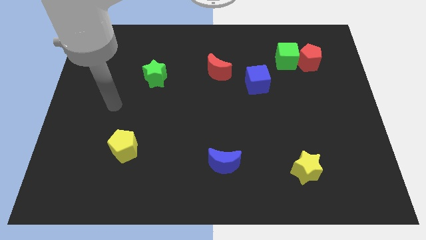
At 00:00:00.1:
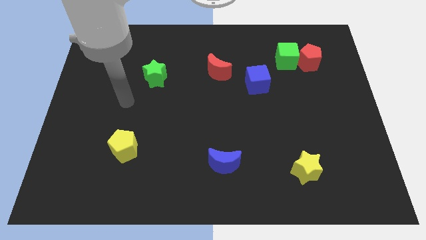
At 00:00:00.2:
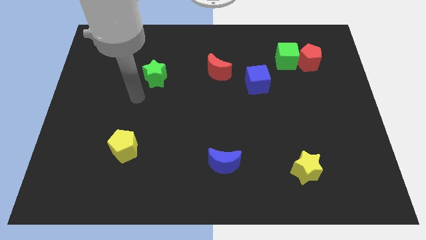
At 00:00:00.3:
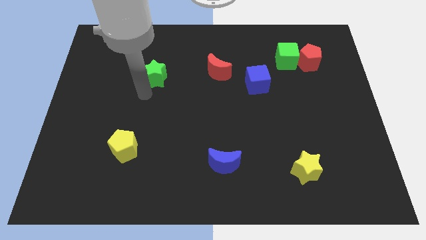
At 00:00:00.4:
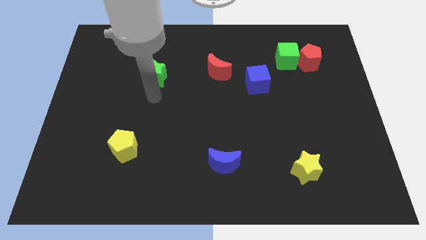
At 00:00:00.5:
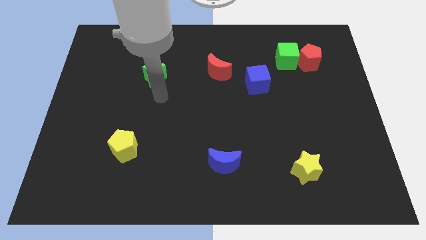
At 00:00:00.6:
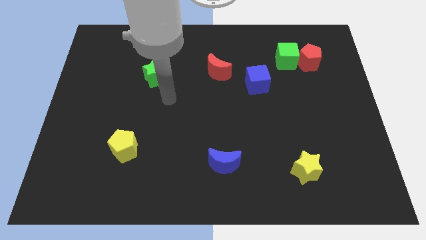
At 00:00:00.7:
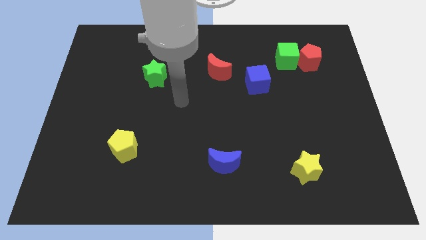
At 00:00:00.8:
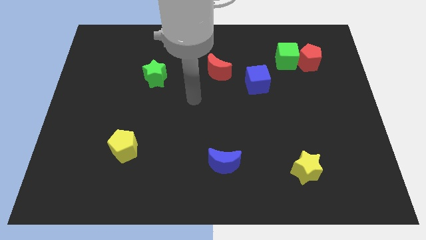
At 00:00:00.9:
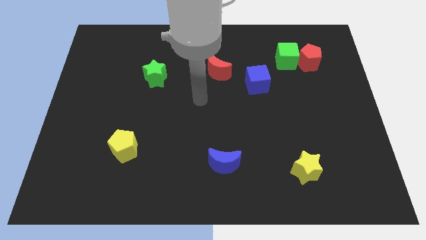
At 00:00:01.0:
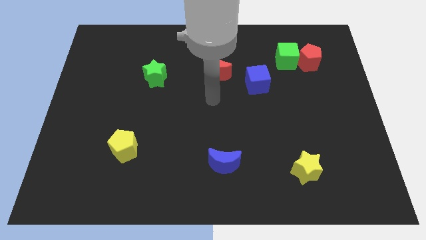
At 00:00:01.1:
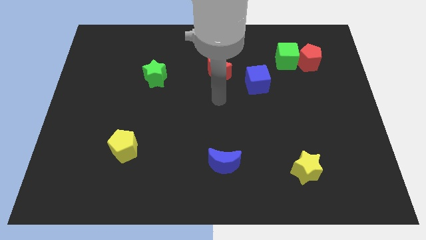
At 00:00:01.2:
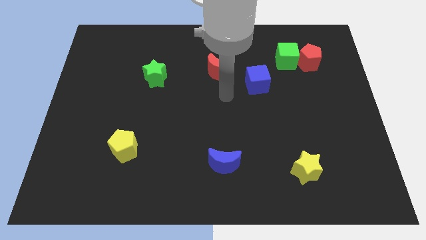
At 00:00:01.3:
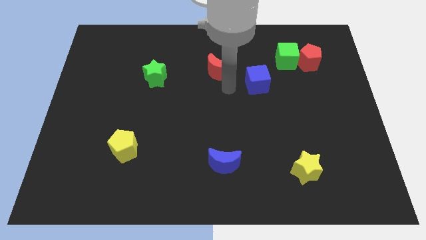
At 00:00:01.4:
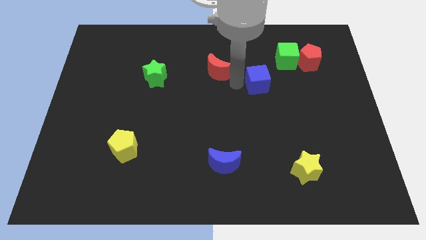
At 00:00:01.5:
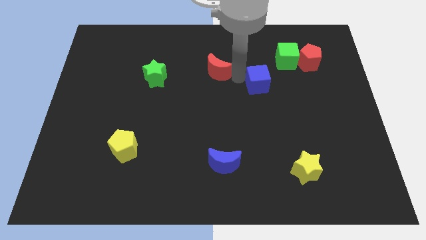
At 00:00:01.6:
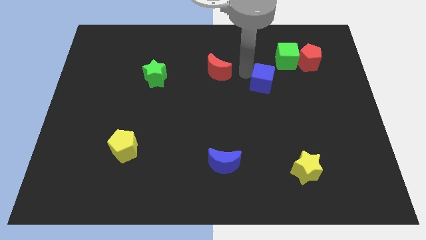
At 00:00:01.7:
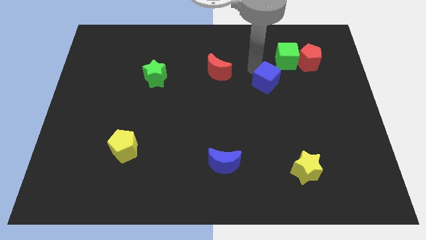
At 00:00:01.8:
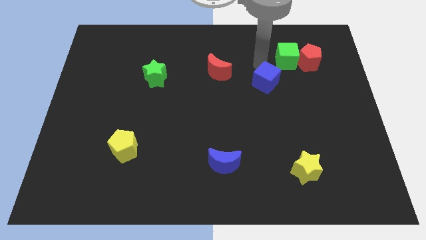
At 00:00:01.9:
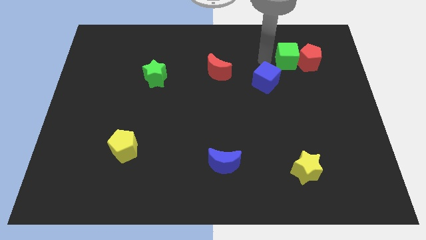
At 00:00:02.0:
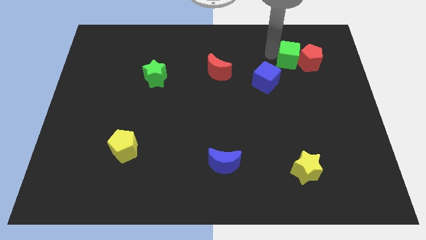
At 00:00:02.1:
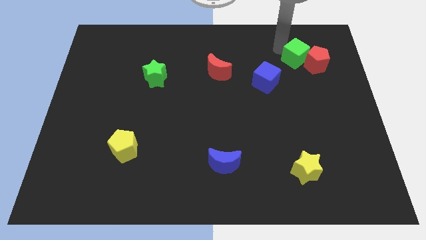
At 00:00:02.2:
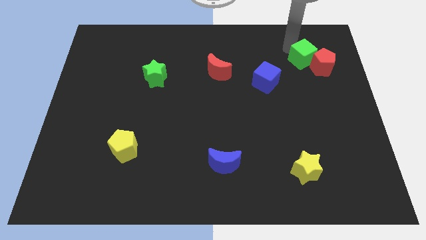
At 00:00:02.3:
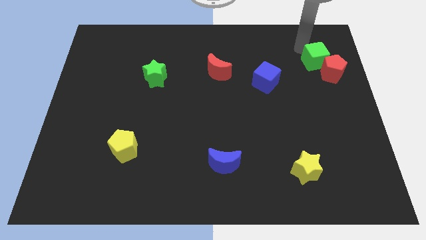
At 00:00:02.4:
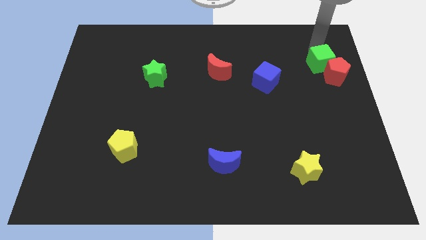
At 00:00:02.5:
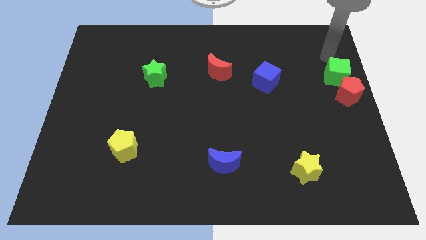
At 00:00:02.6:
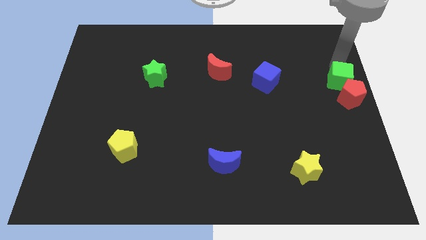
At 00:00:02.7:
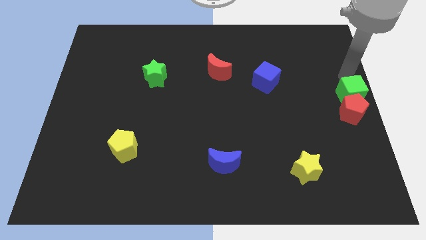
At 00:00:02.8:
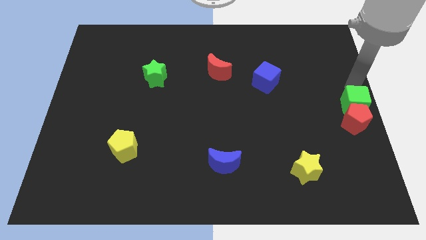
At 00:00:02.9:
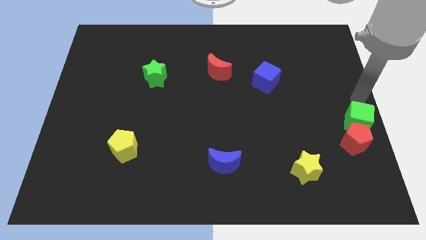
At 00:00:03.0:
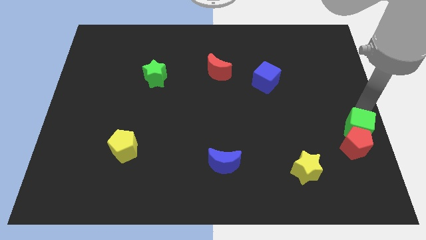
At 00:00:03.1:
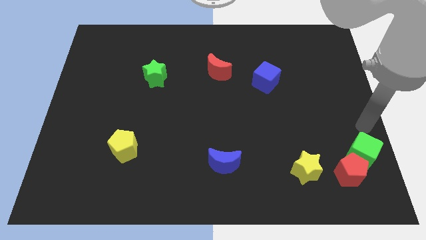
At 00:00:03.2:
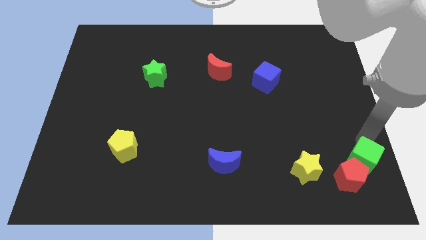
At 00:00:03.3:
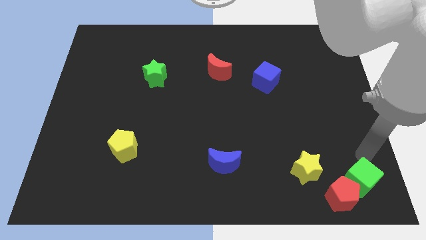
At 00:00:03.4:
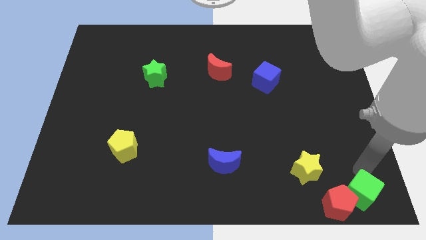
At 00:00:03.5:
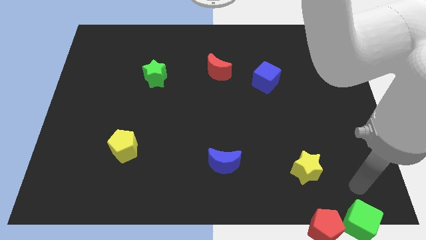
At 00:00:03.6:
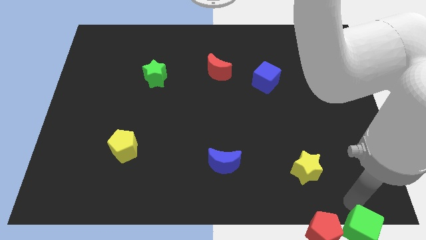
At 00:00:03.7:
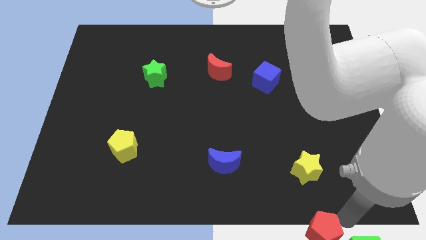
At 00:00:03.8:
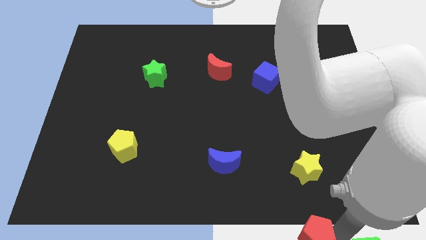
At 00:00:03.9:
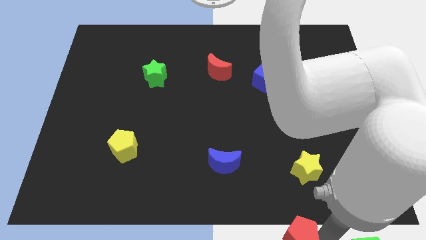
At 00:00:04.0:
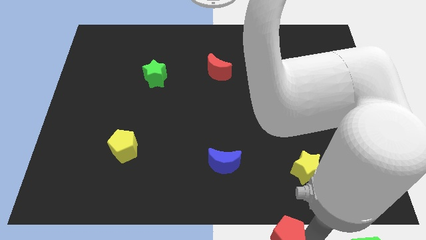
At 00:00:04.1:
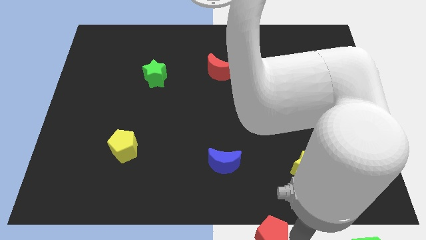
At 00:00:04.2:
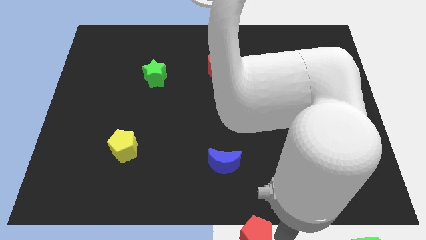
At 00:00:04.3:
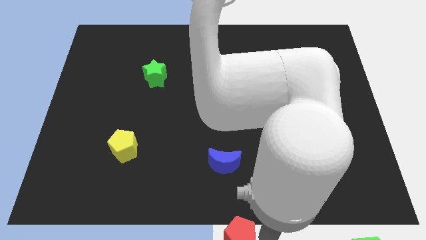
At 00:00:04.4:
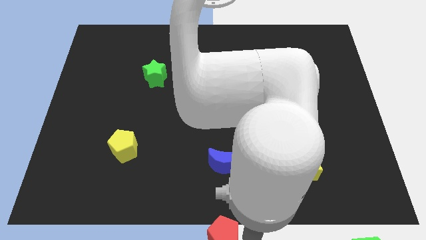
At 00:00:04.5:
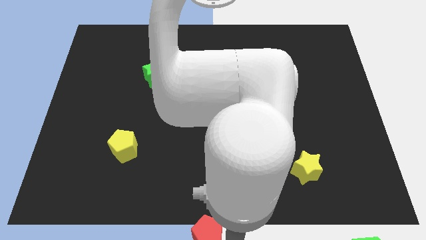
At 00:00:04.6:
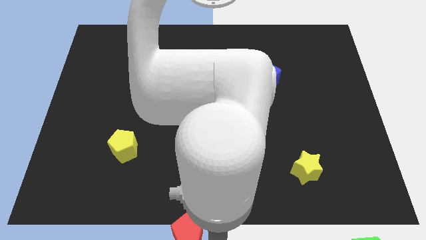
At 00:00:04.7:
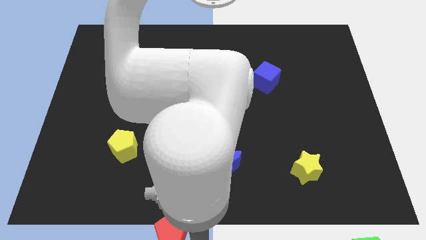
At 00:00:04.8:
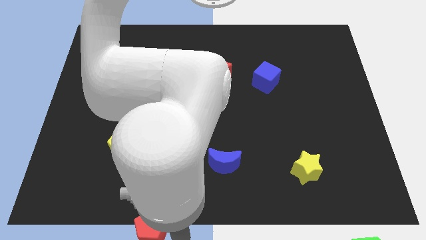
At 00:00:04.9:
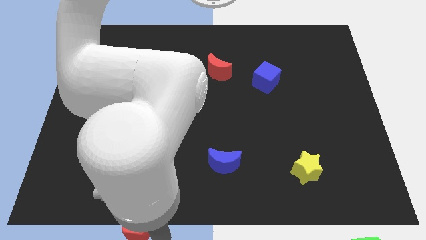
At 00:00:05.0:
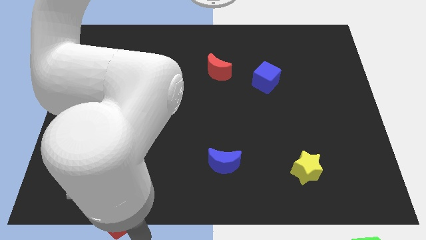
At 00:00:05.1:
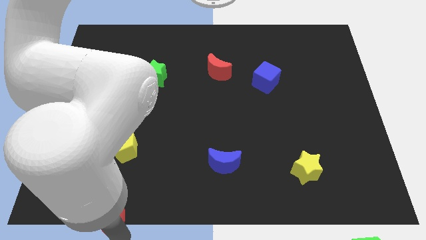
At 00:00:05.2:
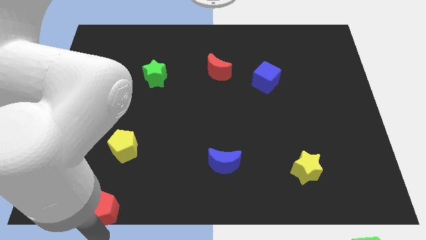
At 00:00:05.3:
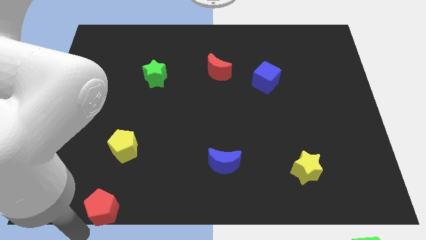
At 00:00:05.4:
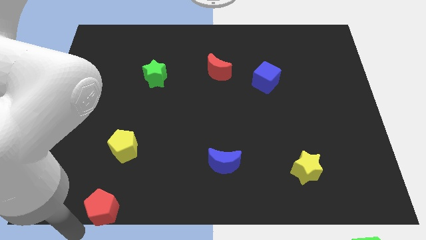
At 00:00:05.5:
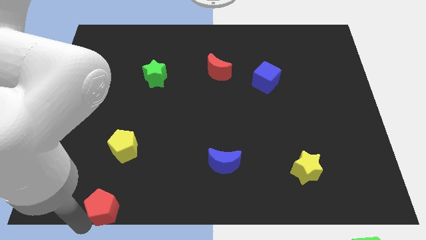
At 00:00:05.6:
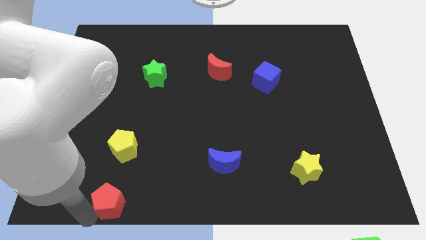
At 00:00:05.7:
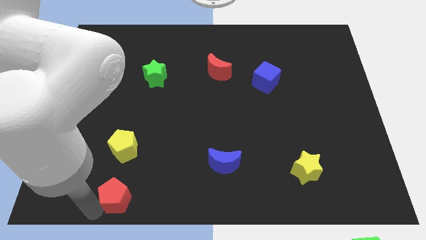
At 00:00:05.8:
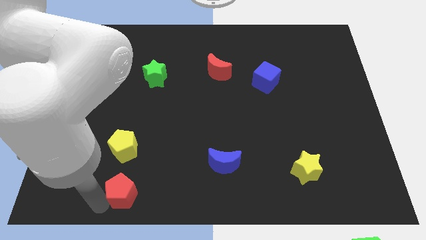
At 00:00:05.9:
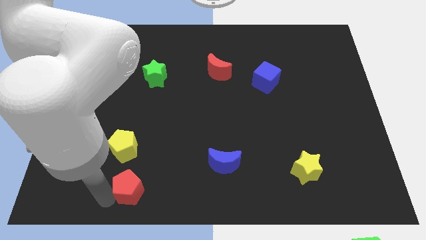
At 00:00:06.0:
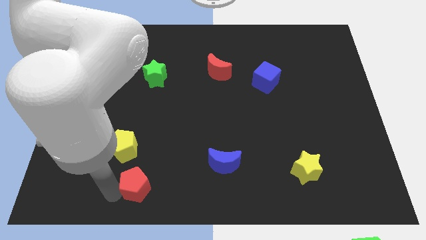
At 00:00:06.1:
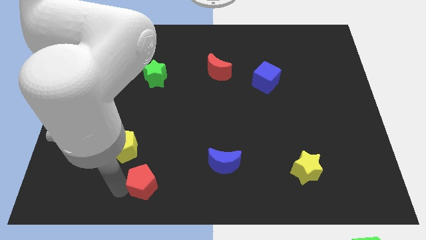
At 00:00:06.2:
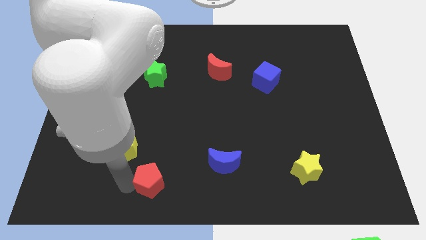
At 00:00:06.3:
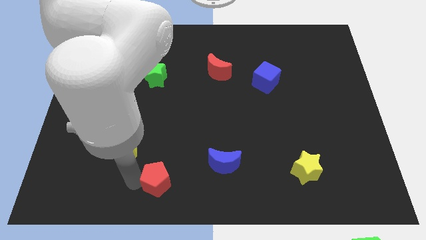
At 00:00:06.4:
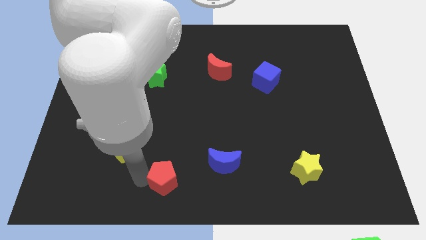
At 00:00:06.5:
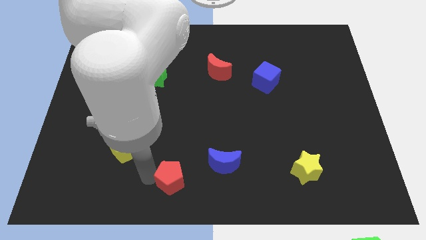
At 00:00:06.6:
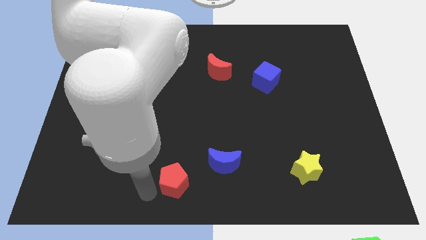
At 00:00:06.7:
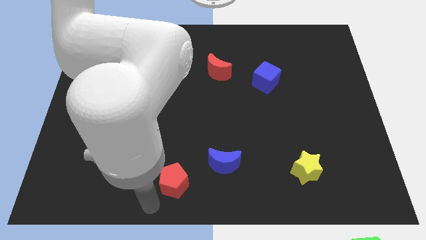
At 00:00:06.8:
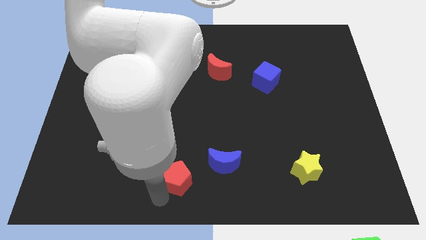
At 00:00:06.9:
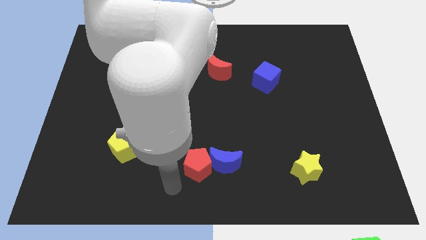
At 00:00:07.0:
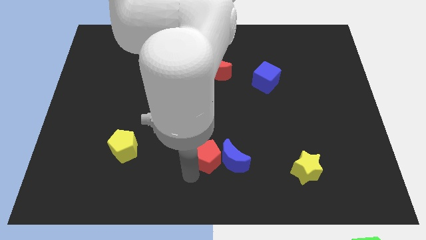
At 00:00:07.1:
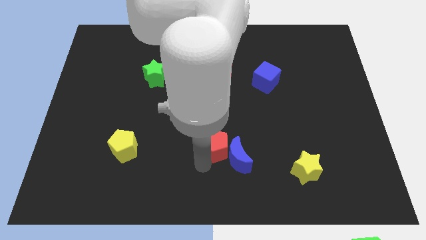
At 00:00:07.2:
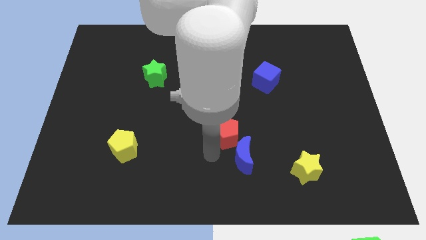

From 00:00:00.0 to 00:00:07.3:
put the red pentagon above the blue moon
